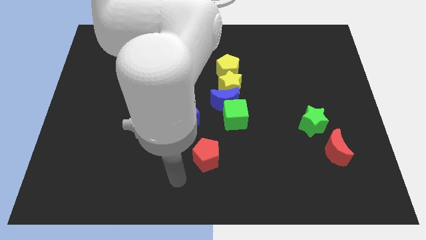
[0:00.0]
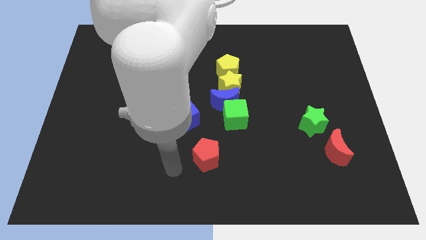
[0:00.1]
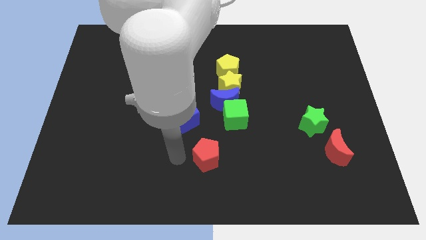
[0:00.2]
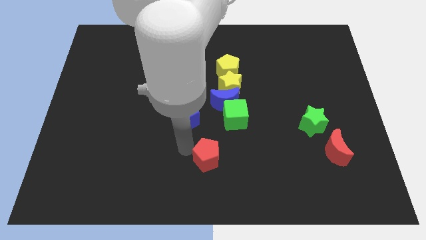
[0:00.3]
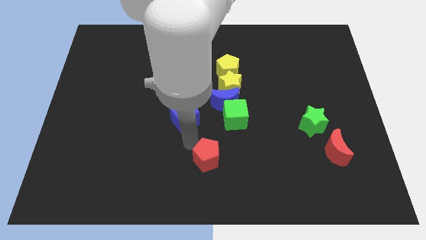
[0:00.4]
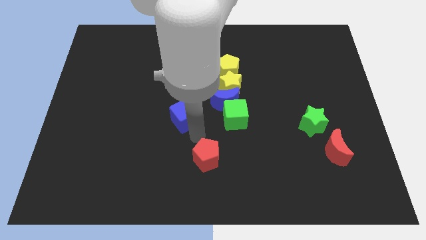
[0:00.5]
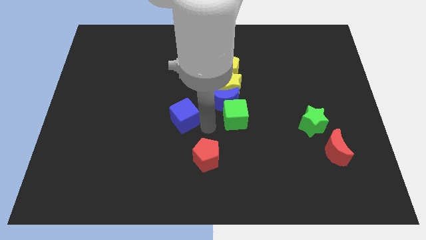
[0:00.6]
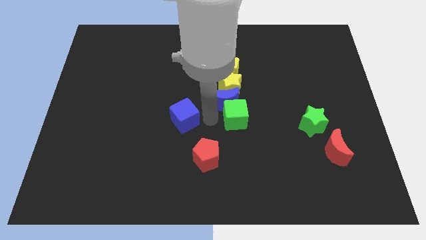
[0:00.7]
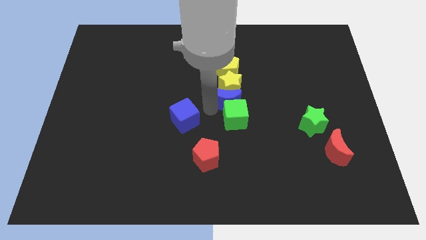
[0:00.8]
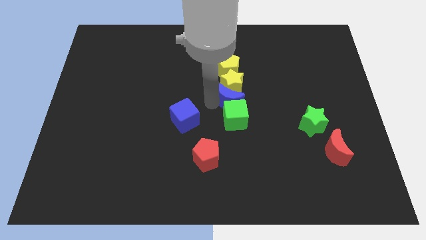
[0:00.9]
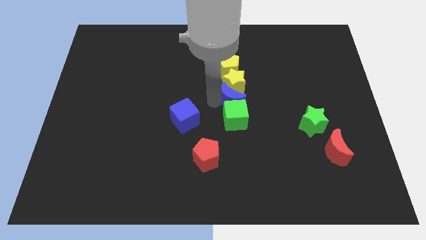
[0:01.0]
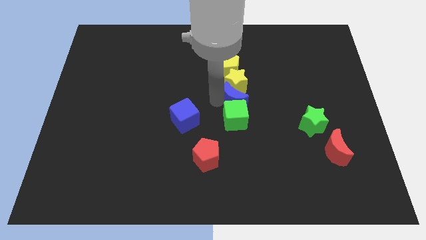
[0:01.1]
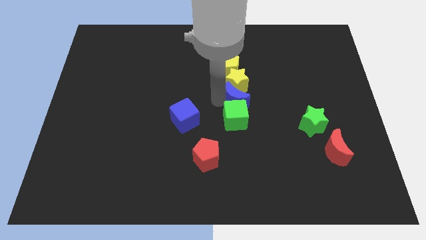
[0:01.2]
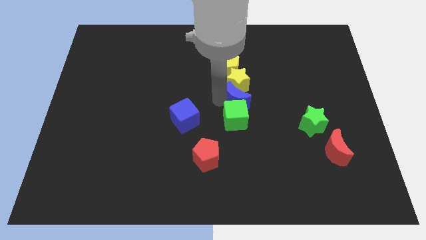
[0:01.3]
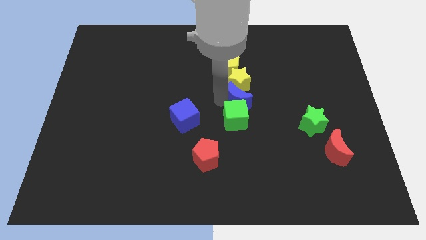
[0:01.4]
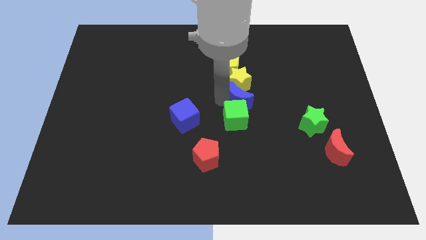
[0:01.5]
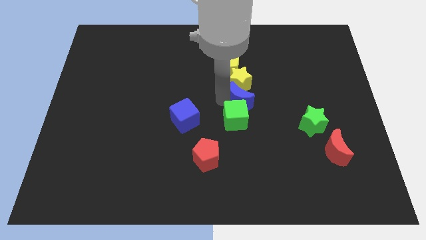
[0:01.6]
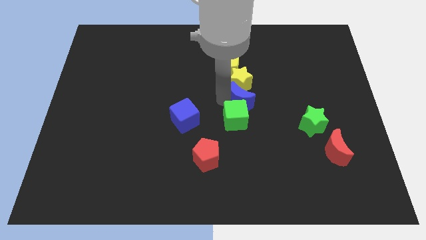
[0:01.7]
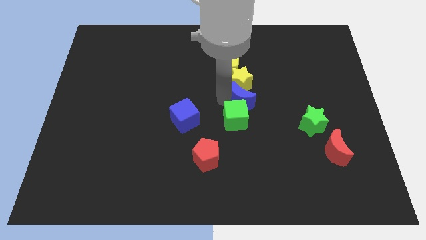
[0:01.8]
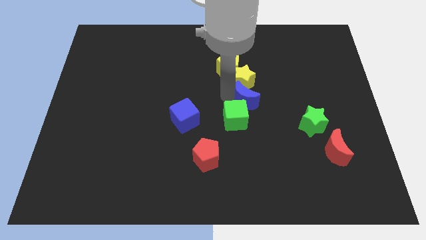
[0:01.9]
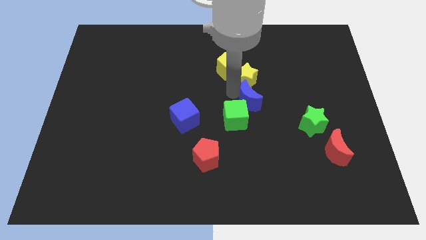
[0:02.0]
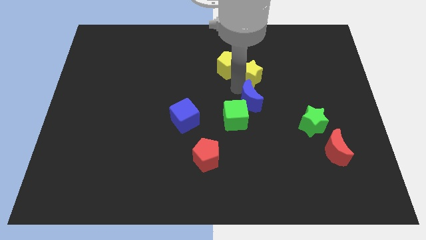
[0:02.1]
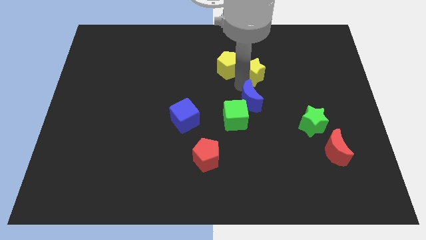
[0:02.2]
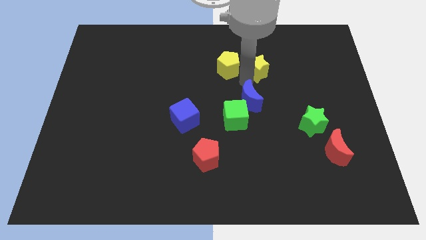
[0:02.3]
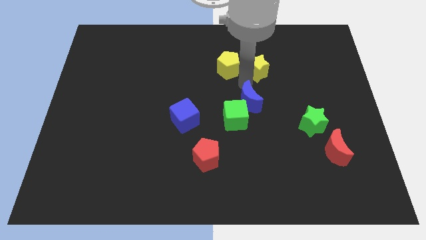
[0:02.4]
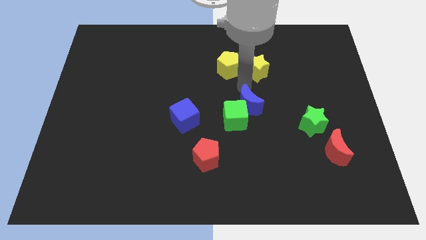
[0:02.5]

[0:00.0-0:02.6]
pull the yellow star apart from the group

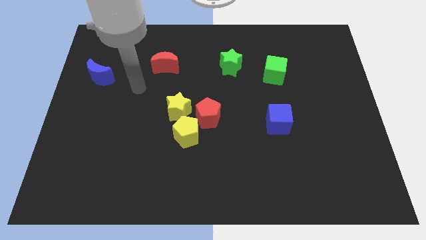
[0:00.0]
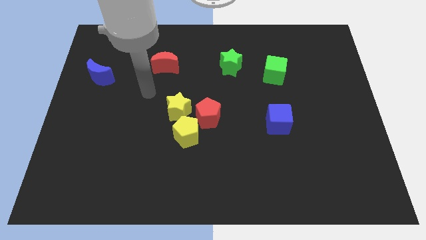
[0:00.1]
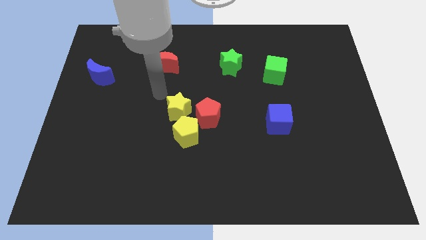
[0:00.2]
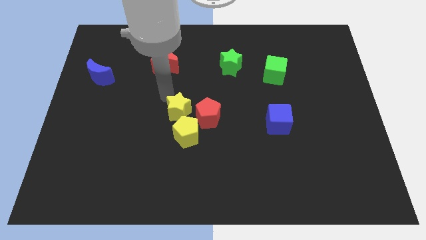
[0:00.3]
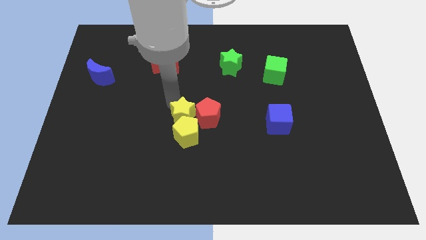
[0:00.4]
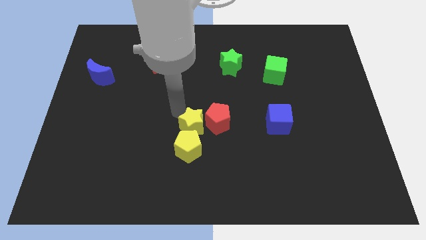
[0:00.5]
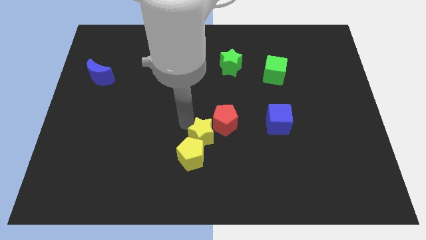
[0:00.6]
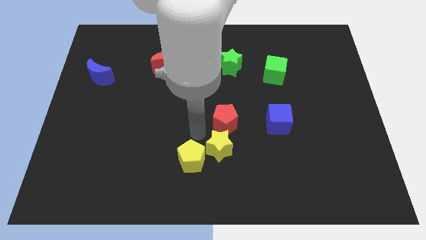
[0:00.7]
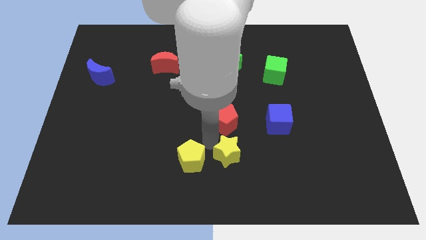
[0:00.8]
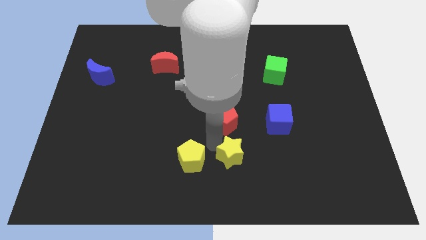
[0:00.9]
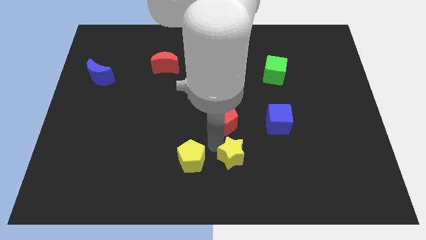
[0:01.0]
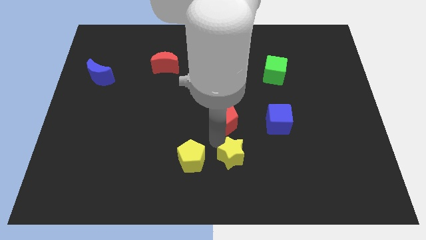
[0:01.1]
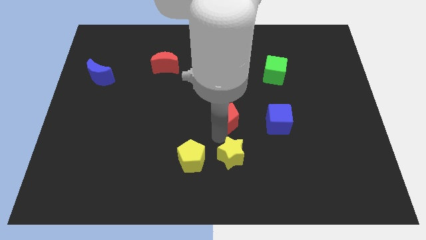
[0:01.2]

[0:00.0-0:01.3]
pull the red pentagon apart from the yellow pentagon and yellow star

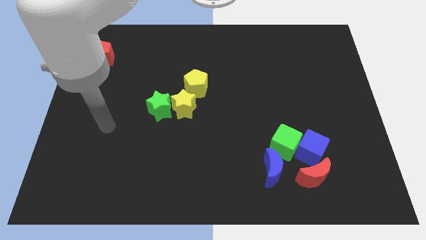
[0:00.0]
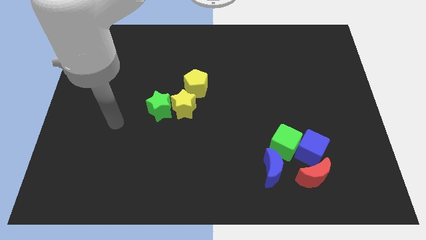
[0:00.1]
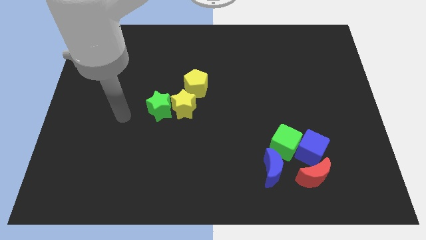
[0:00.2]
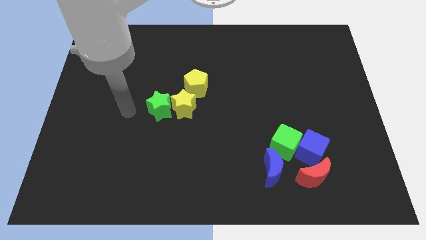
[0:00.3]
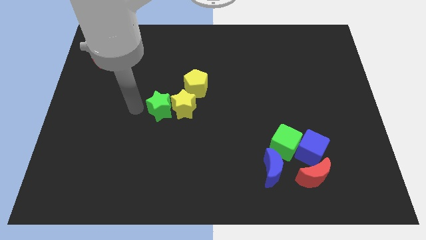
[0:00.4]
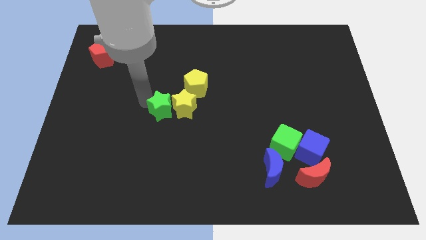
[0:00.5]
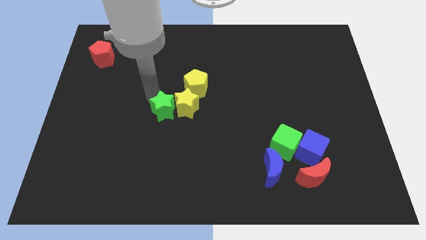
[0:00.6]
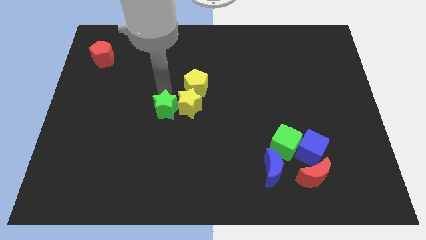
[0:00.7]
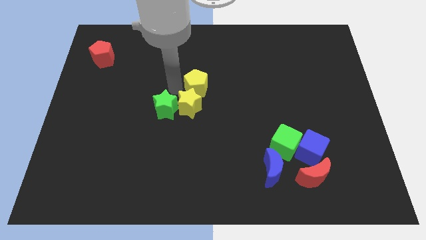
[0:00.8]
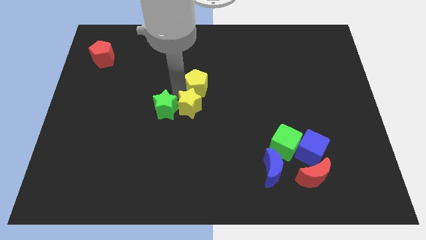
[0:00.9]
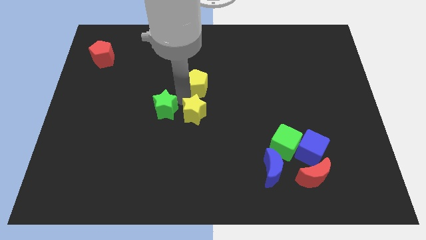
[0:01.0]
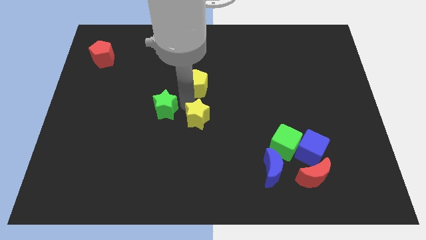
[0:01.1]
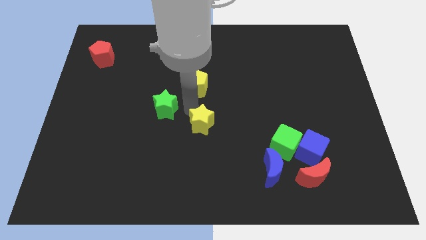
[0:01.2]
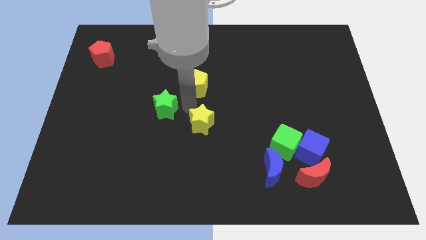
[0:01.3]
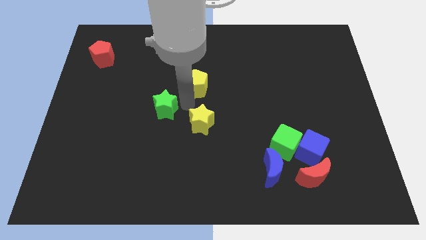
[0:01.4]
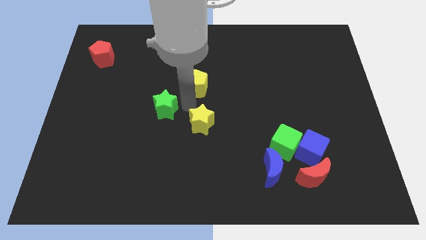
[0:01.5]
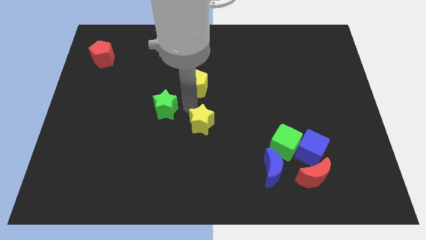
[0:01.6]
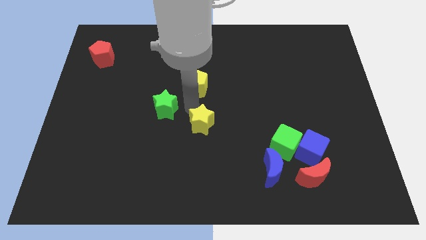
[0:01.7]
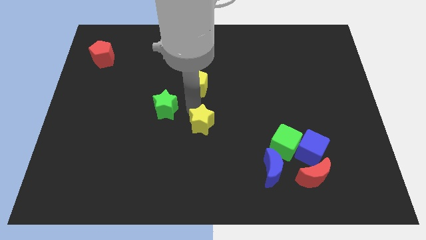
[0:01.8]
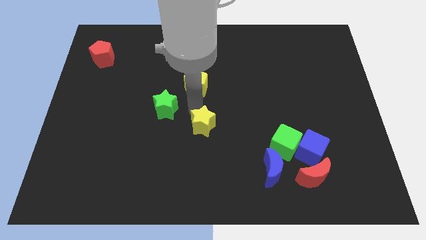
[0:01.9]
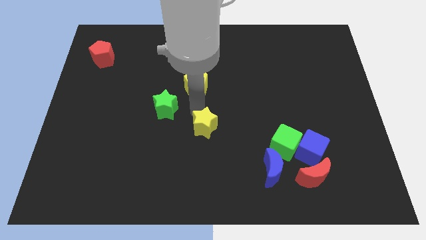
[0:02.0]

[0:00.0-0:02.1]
pull the yellow star apart from the green star and yellow pentagon

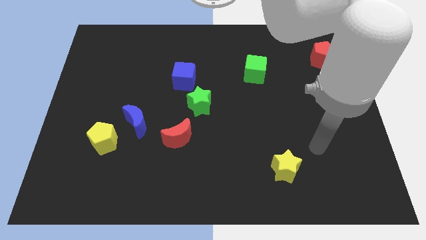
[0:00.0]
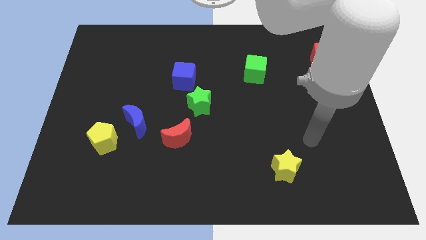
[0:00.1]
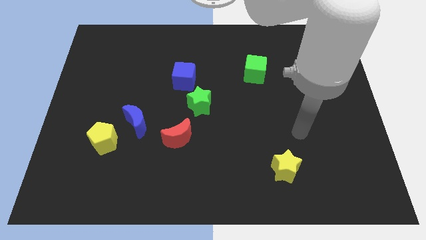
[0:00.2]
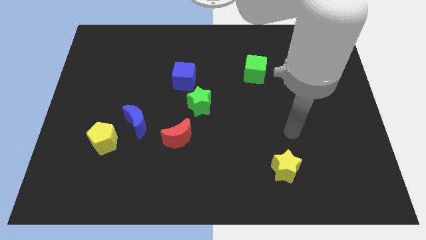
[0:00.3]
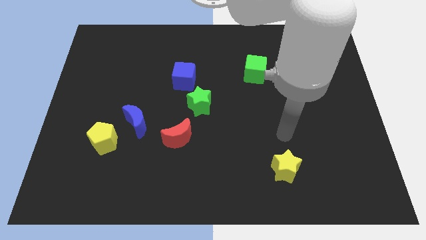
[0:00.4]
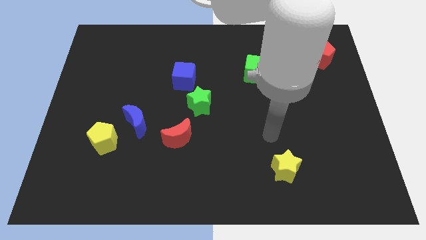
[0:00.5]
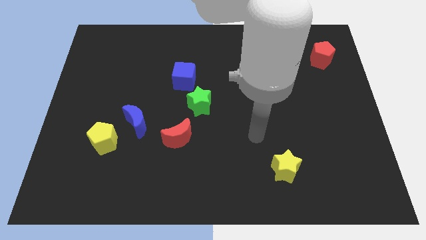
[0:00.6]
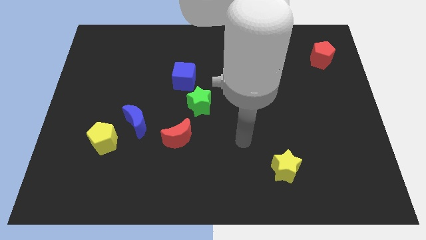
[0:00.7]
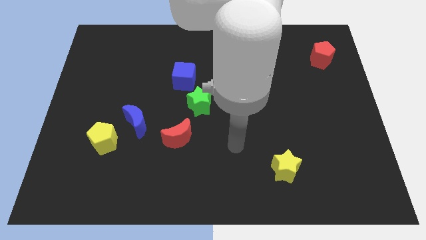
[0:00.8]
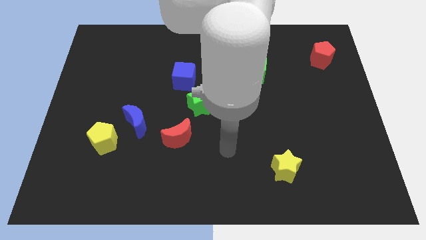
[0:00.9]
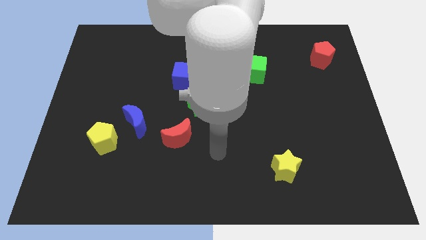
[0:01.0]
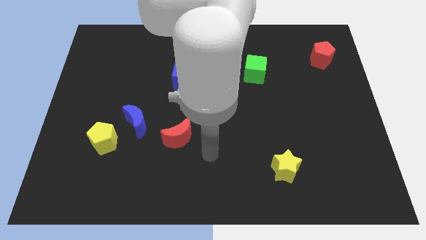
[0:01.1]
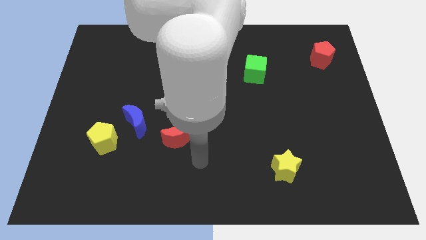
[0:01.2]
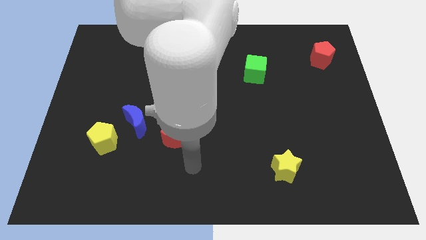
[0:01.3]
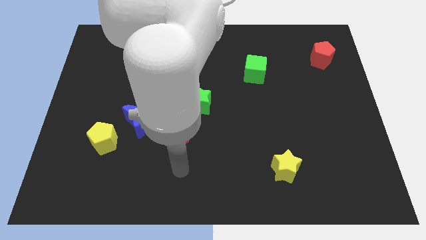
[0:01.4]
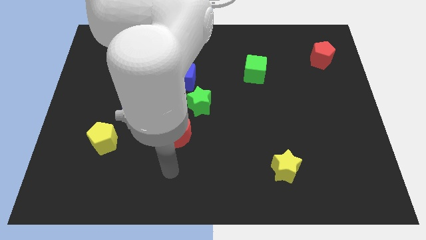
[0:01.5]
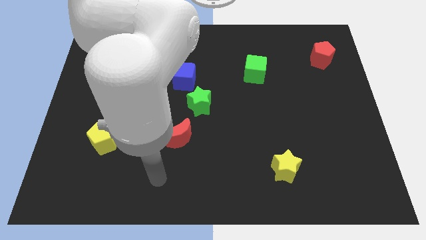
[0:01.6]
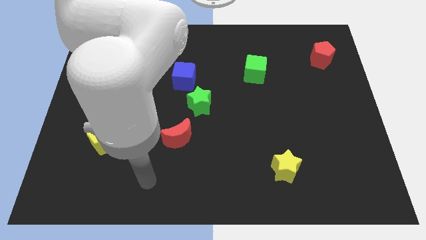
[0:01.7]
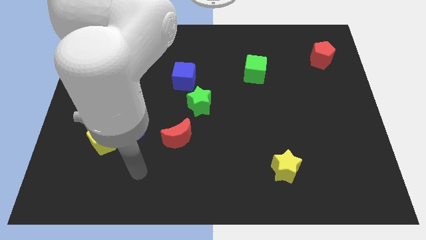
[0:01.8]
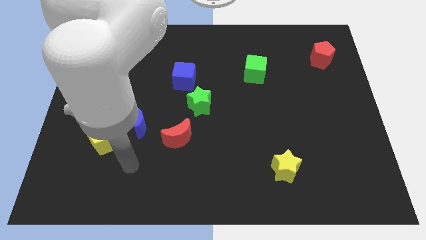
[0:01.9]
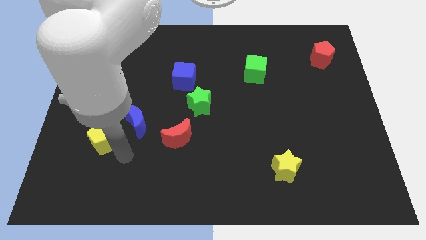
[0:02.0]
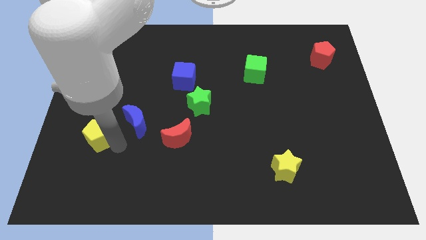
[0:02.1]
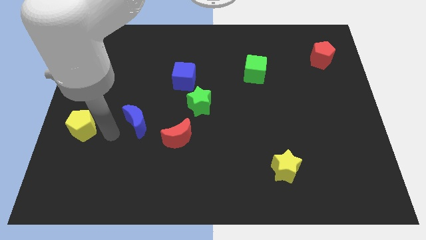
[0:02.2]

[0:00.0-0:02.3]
move the blue moon away from the yellow pentagon

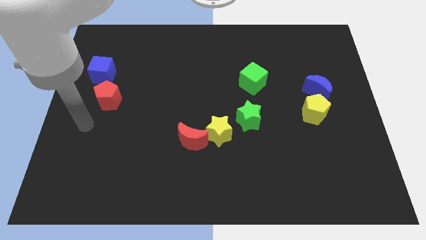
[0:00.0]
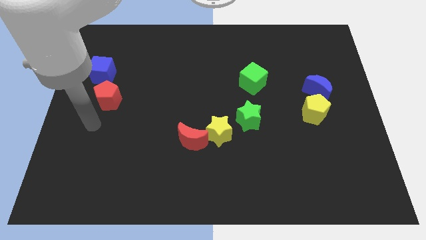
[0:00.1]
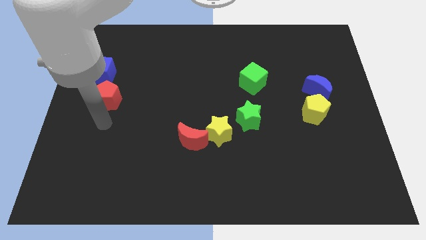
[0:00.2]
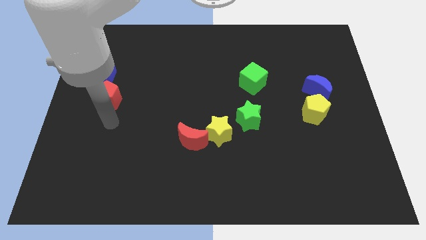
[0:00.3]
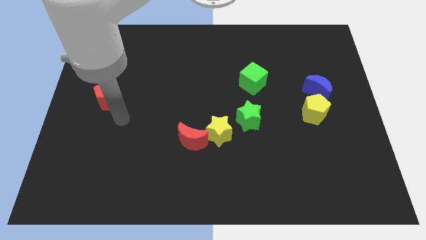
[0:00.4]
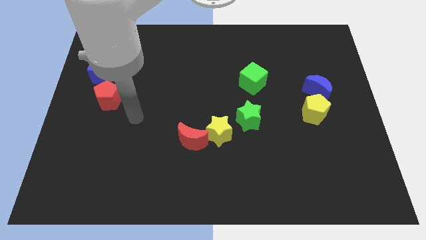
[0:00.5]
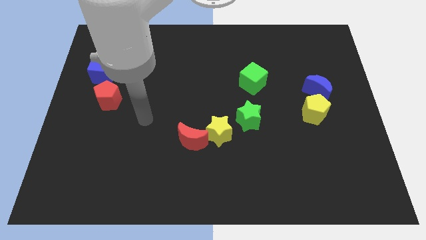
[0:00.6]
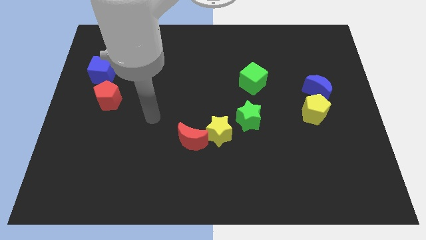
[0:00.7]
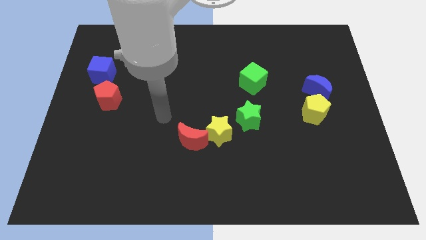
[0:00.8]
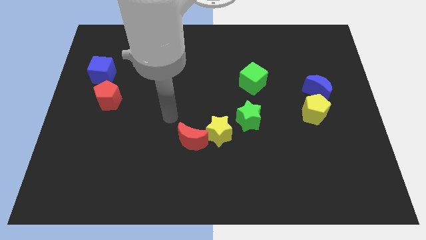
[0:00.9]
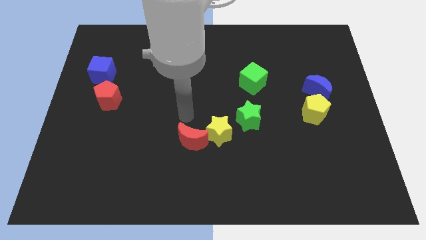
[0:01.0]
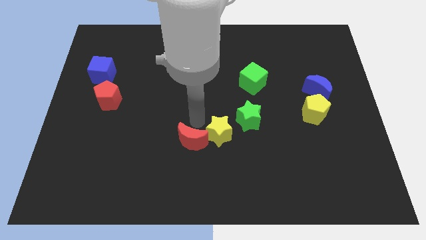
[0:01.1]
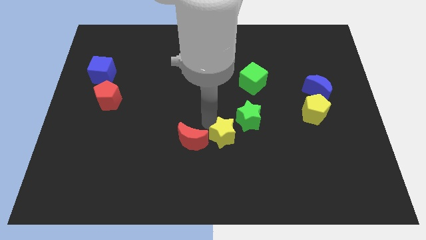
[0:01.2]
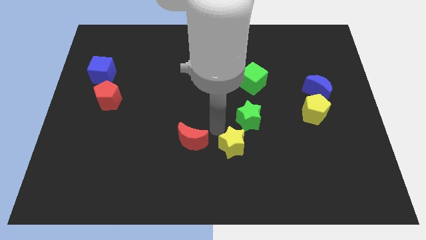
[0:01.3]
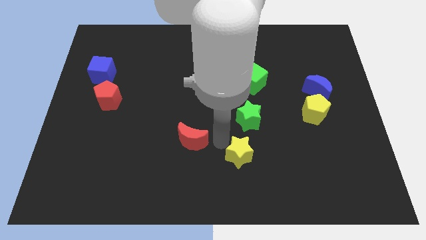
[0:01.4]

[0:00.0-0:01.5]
separate the red moon from the yellow star
